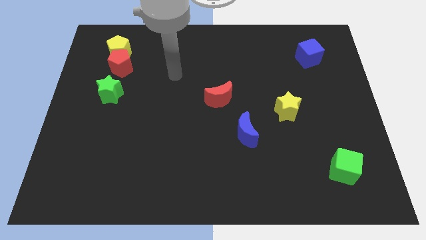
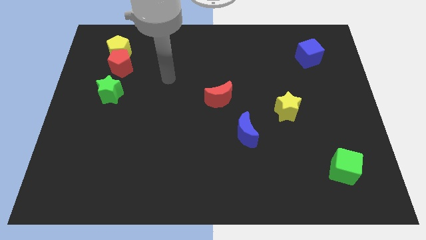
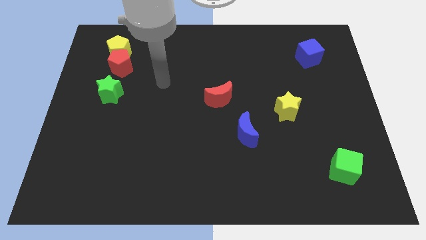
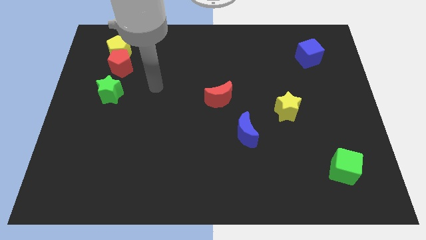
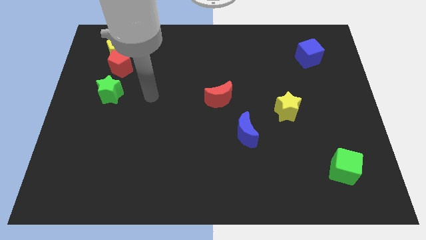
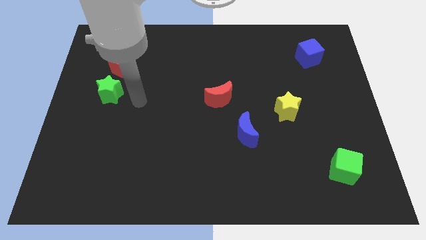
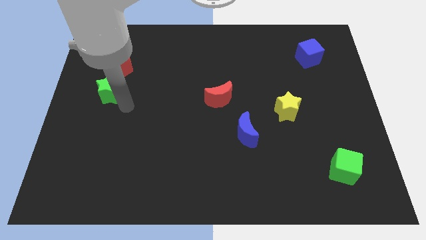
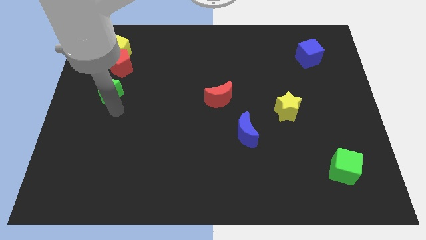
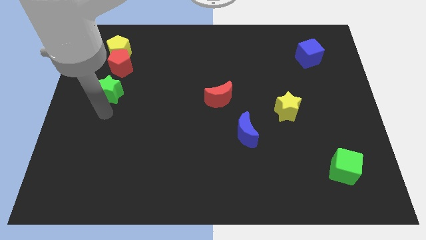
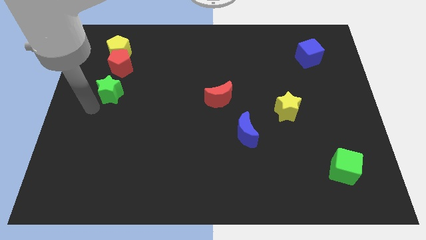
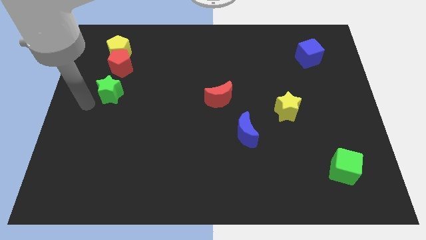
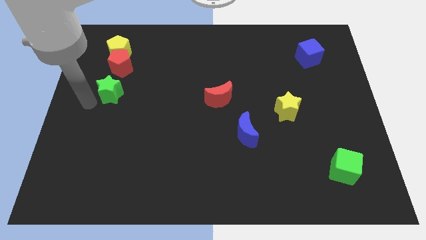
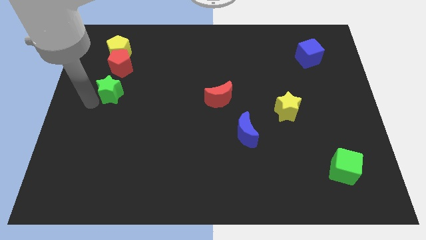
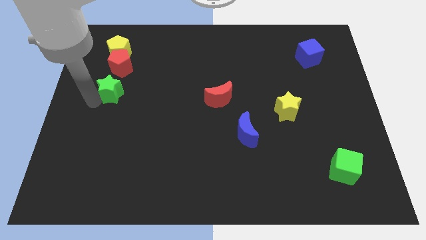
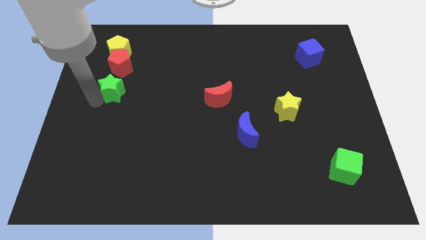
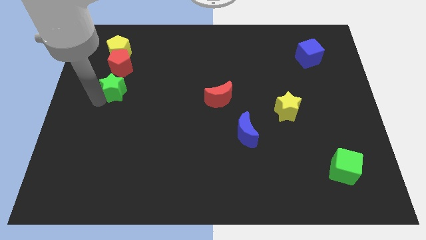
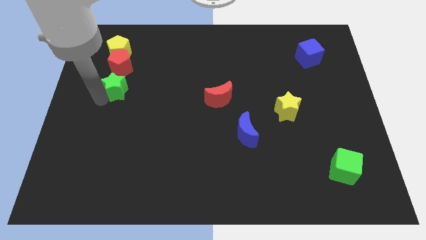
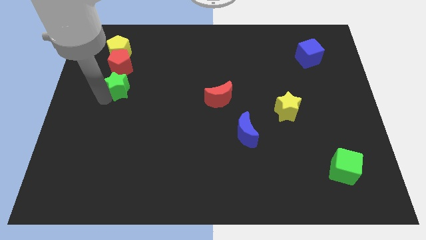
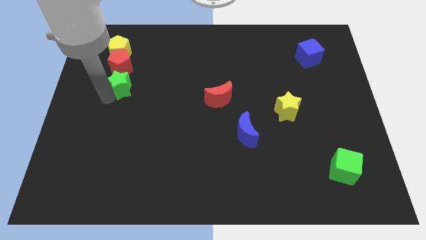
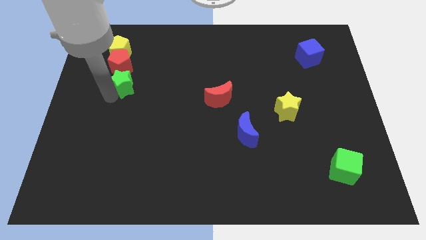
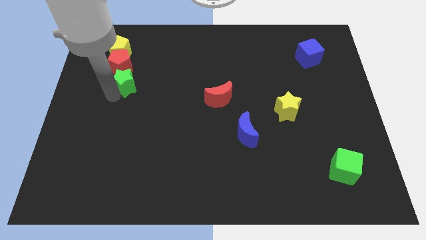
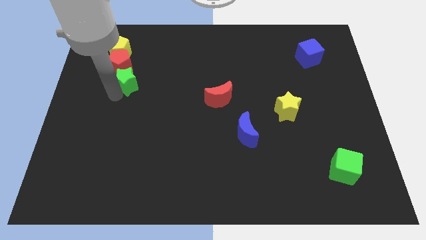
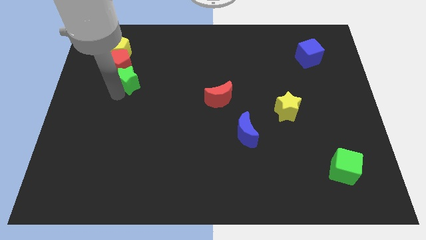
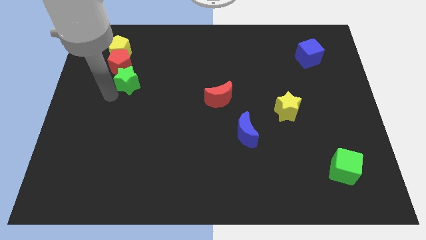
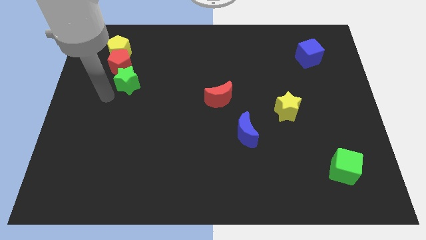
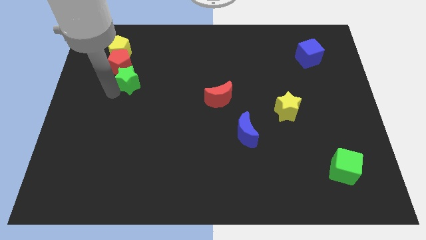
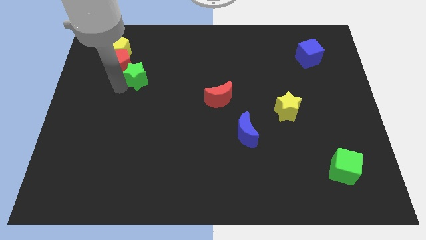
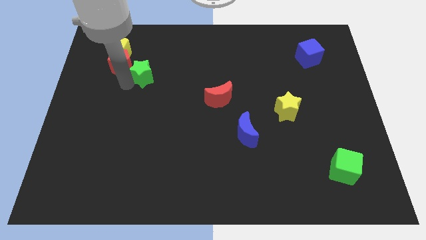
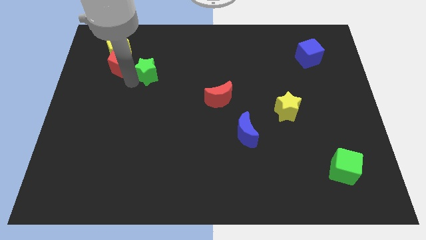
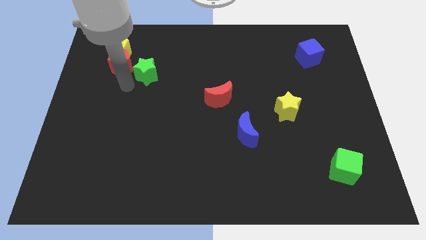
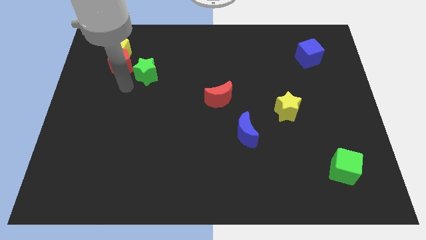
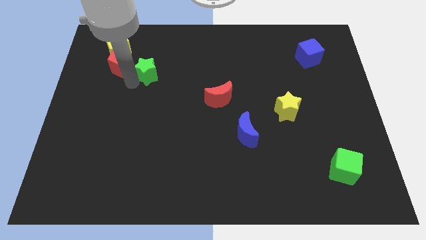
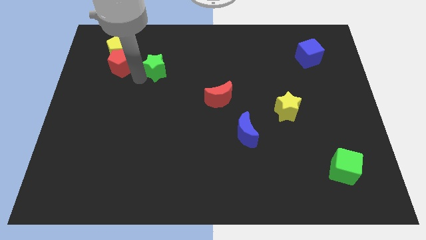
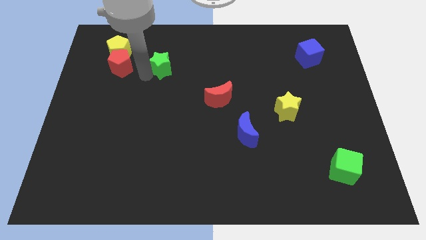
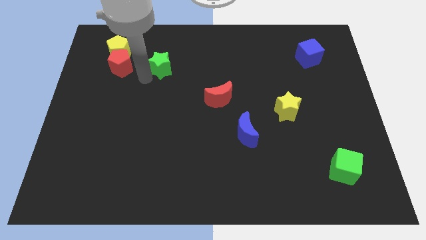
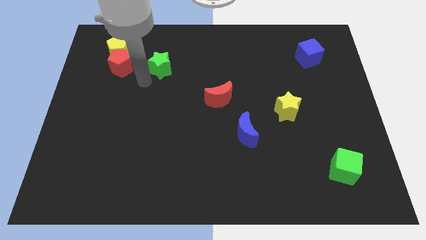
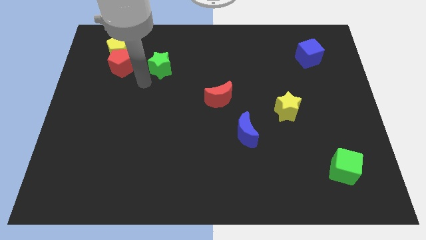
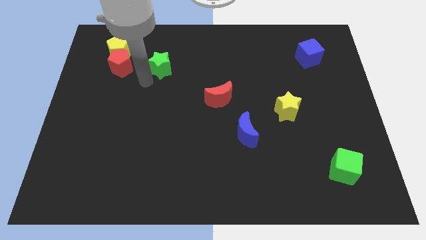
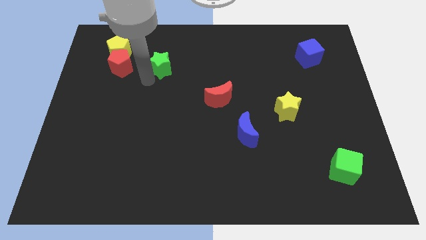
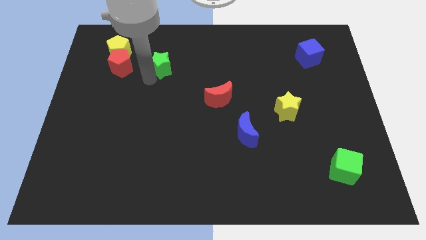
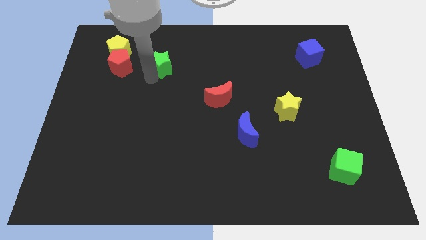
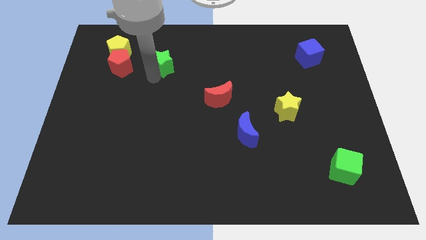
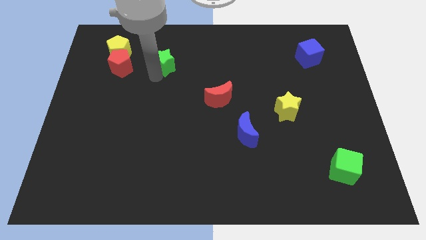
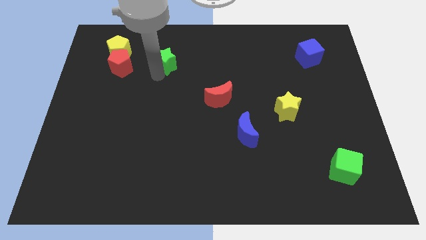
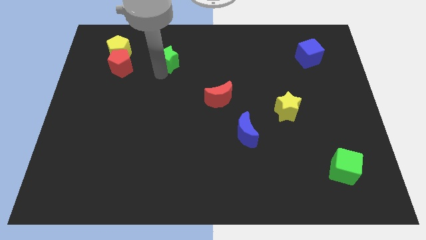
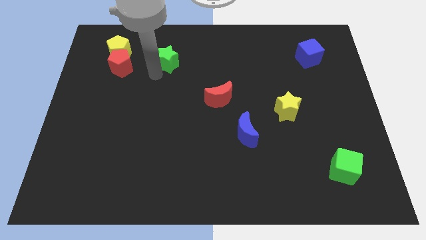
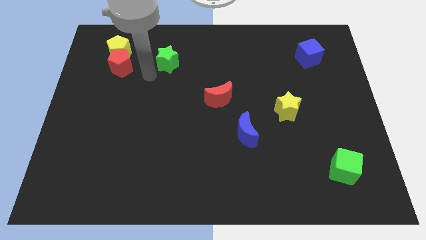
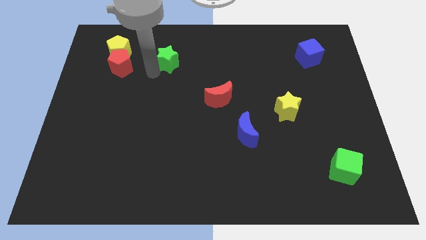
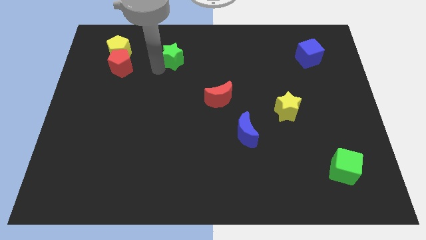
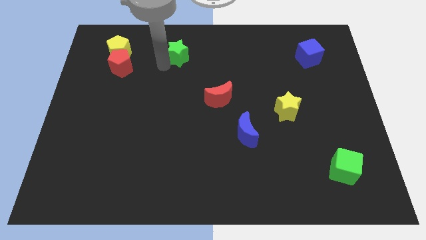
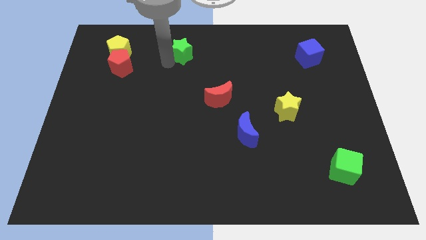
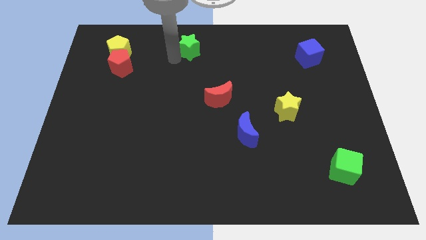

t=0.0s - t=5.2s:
put the green star to the top

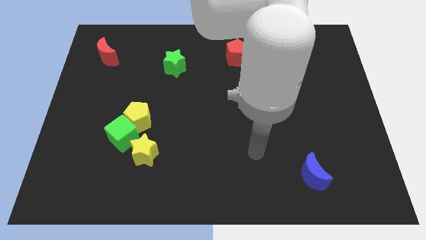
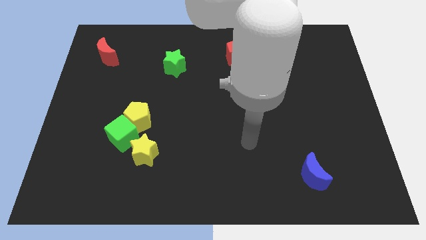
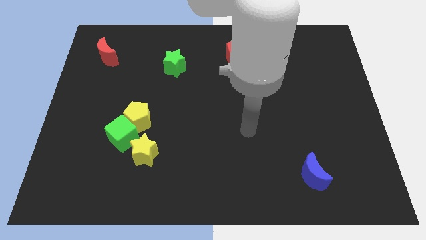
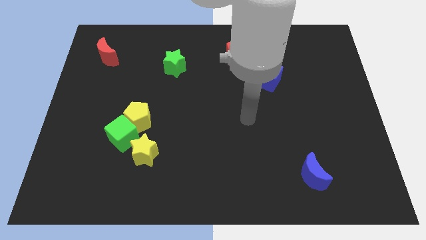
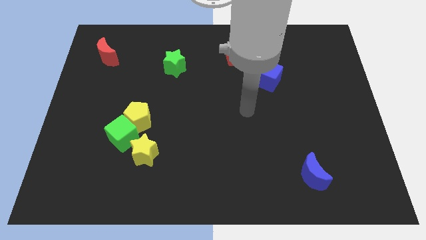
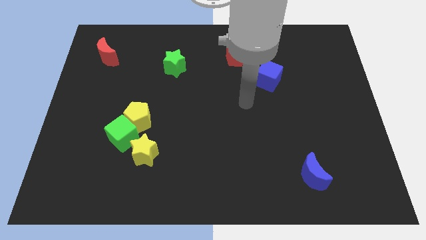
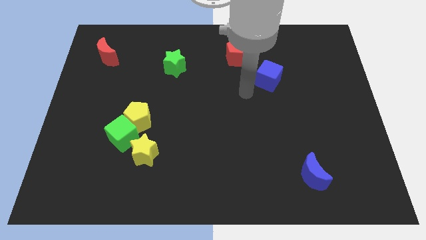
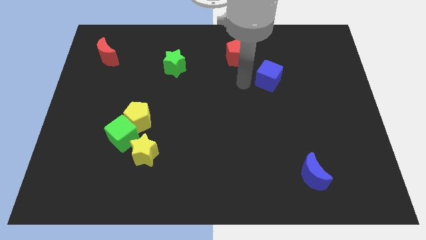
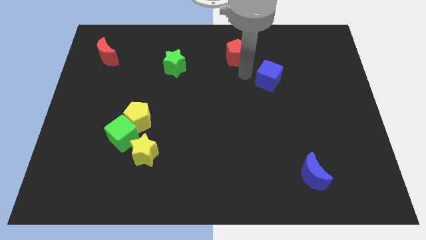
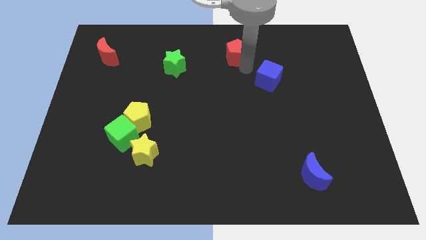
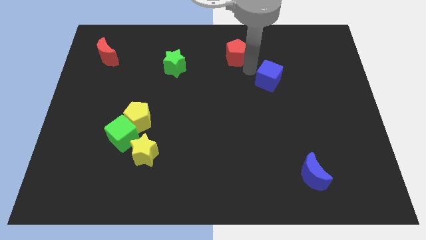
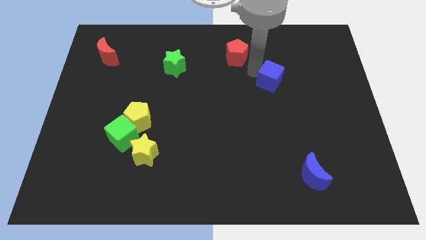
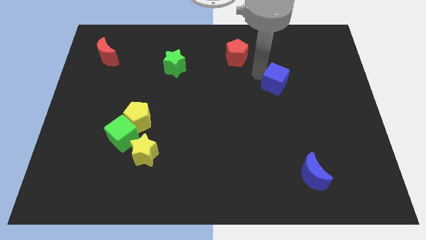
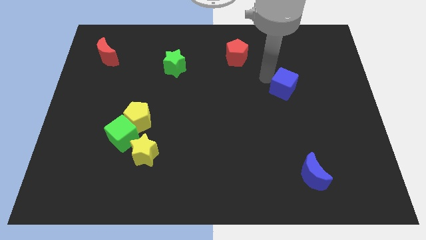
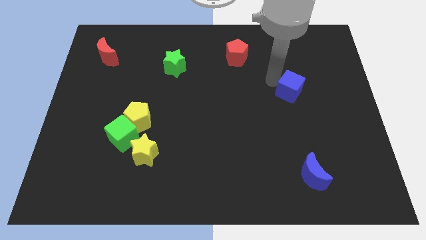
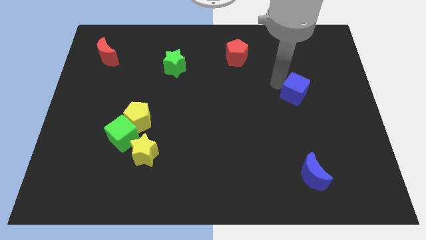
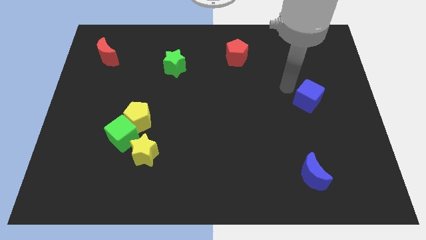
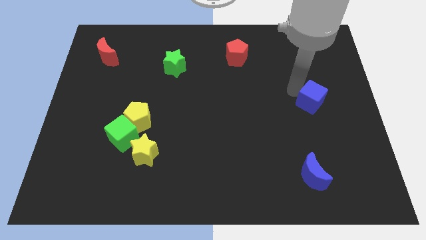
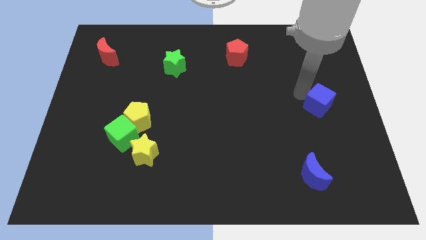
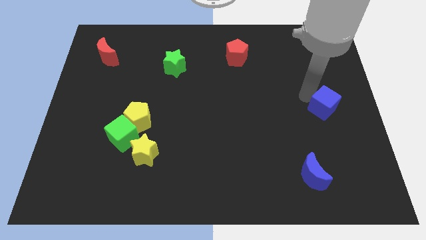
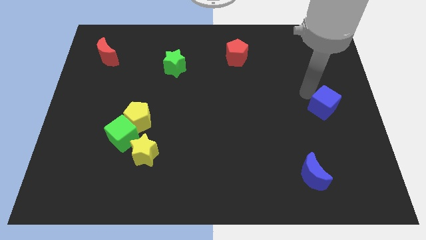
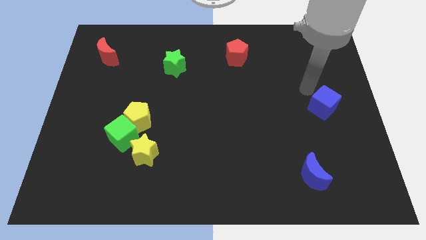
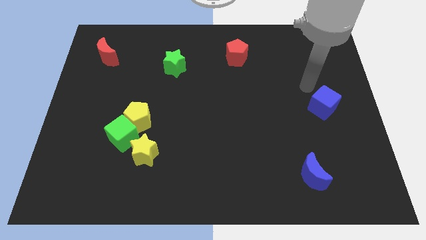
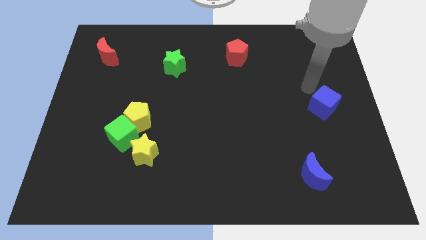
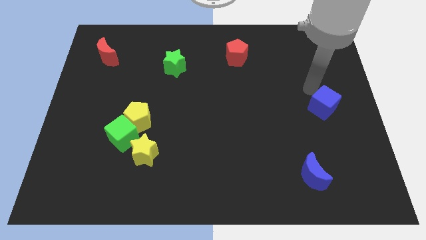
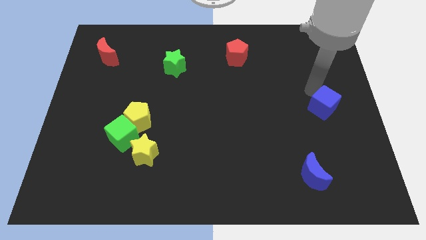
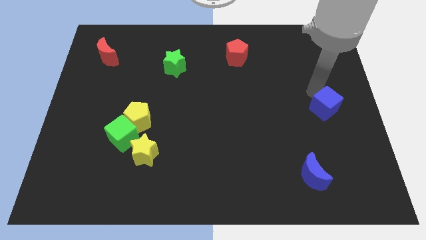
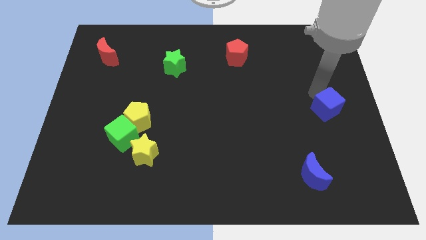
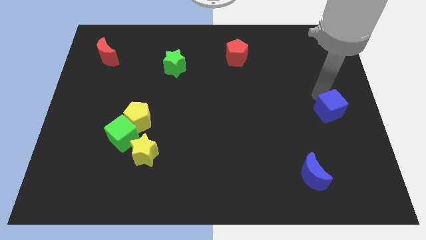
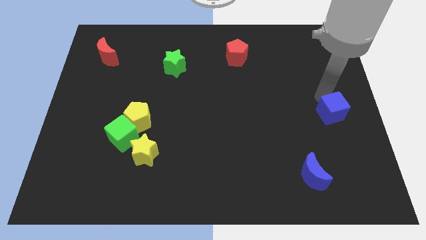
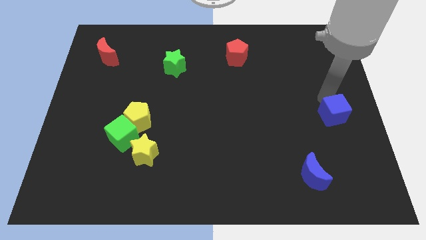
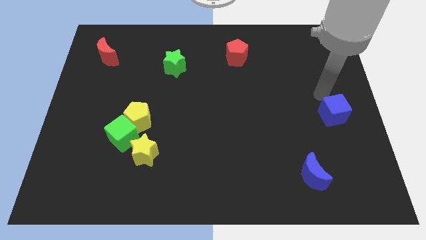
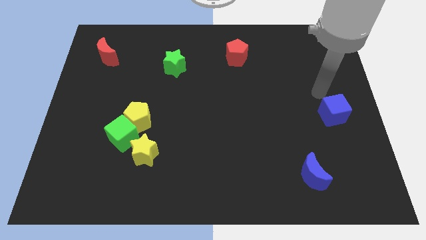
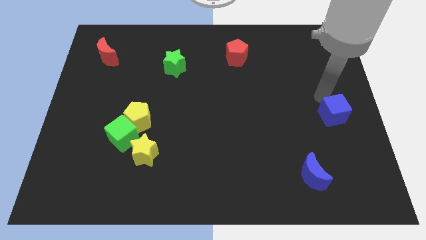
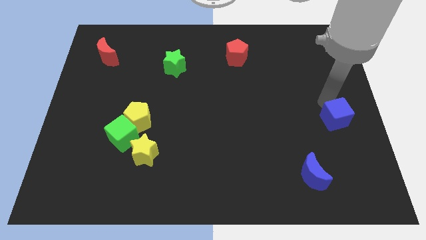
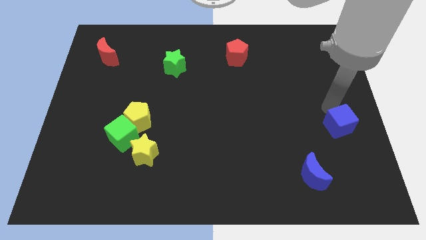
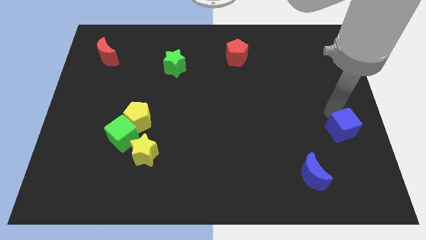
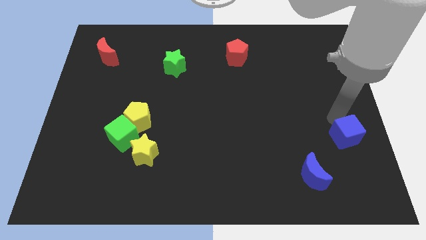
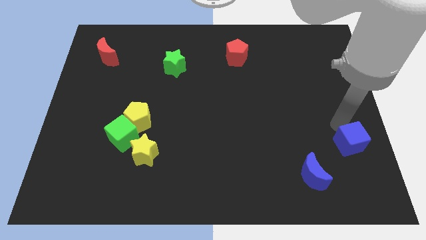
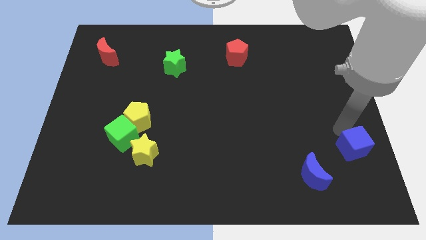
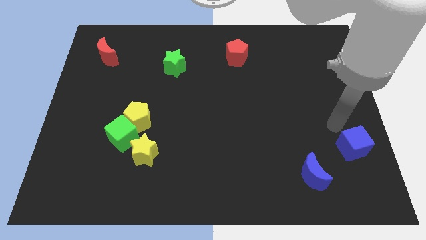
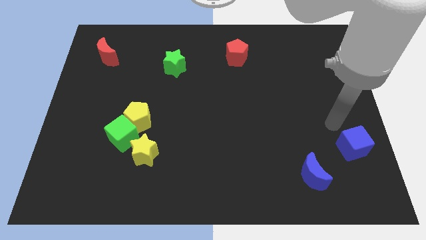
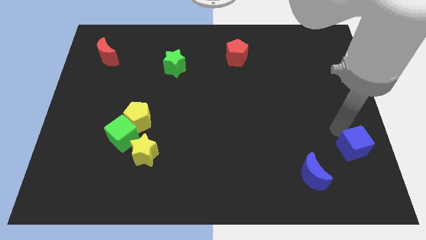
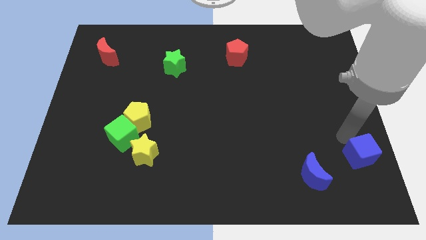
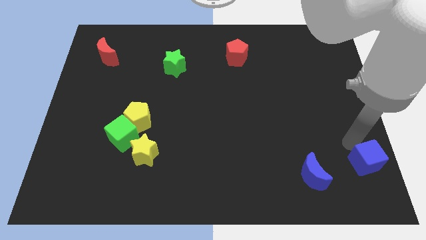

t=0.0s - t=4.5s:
slide the blue cube to the bottom right corner
